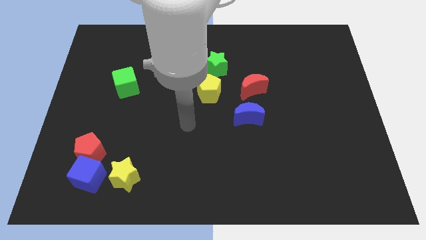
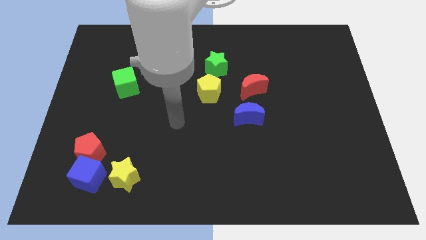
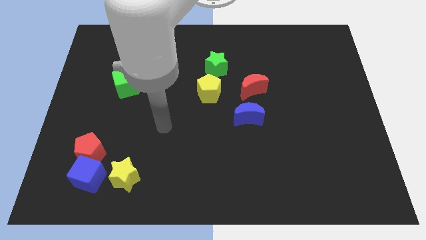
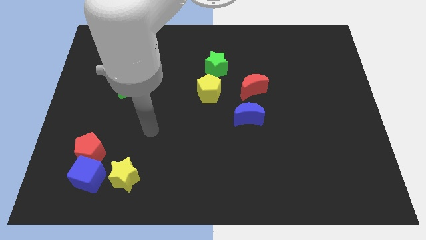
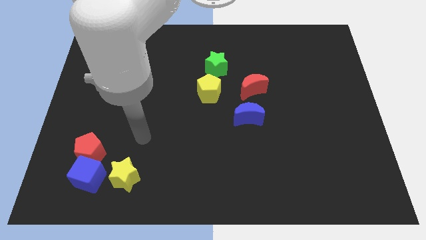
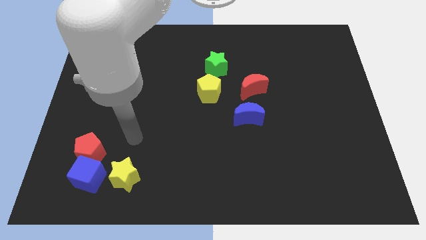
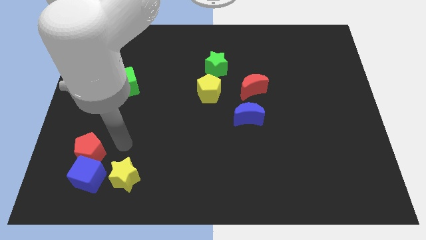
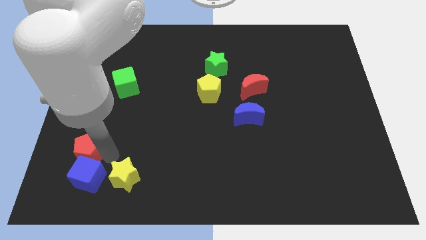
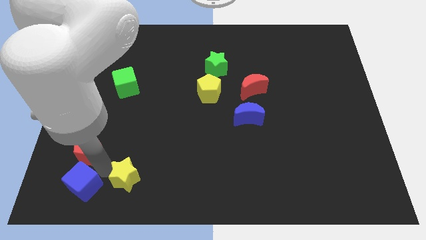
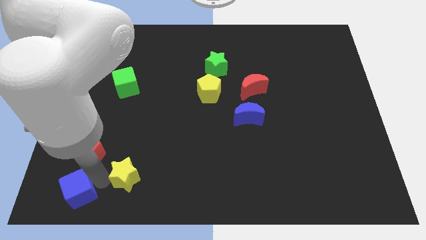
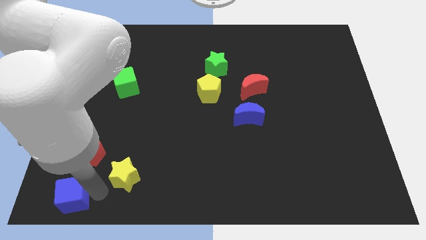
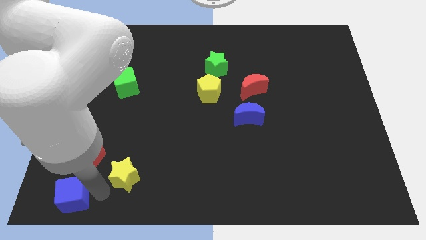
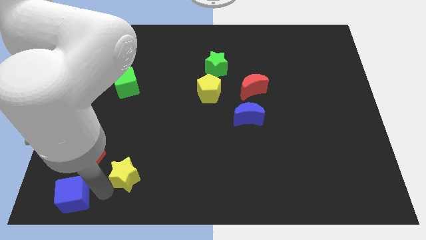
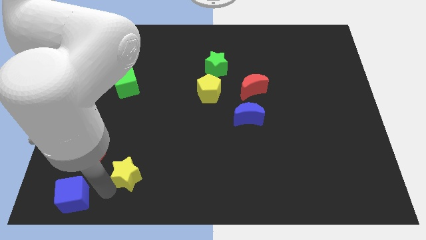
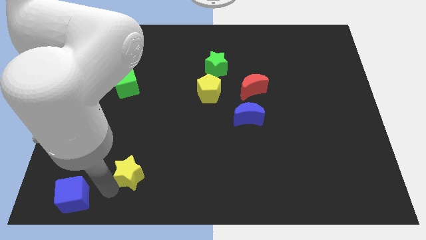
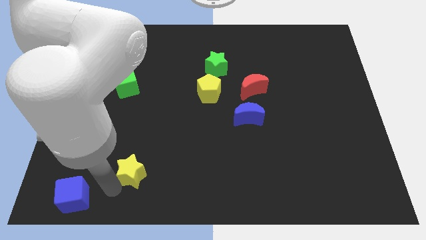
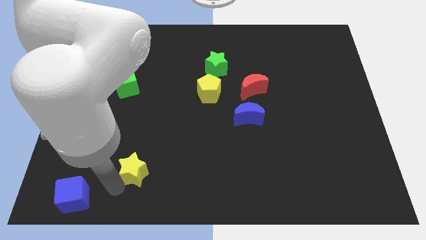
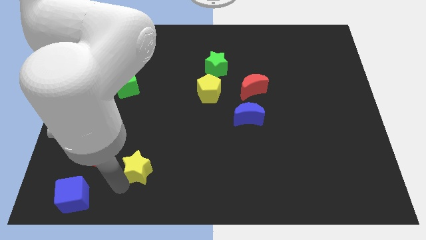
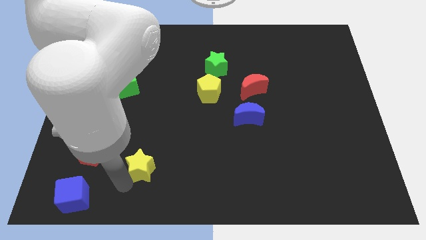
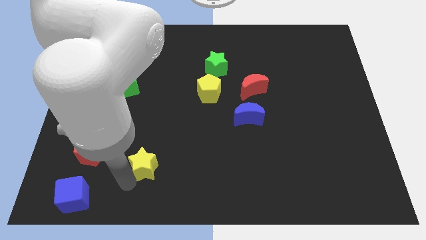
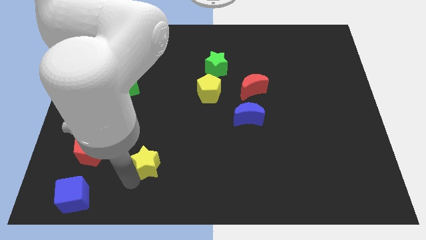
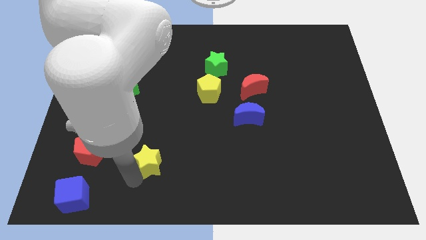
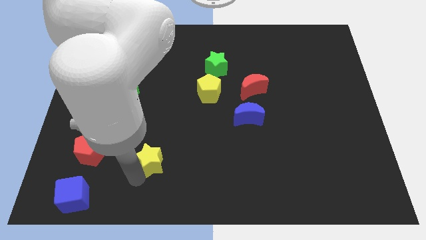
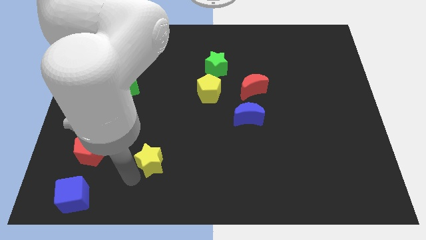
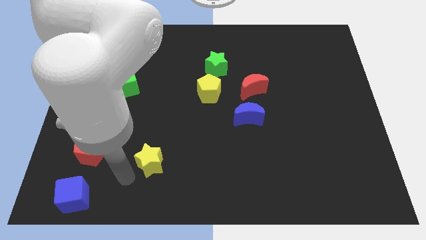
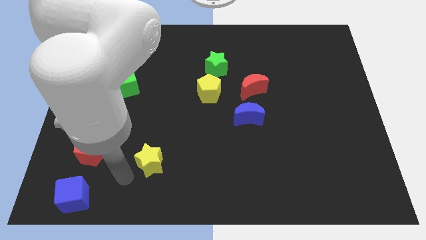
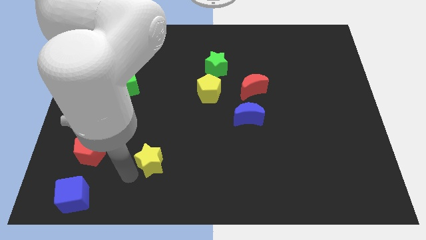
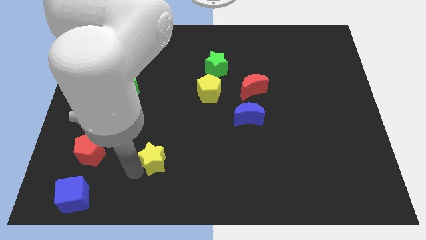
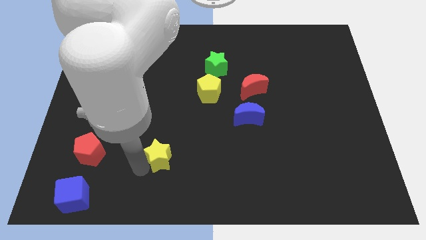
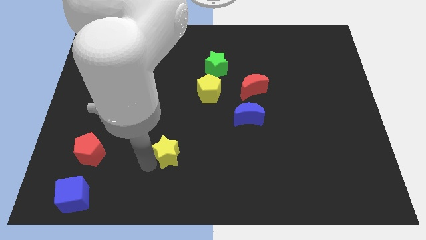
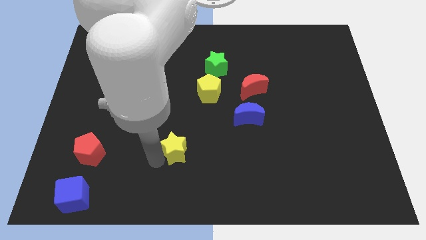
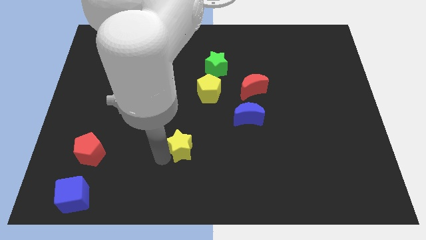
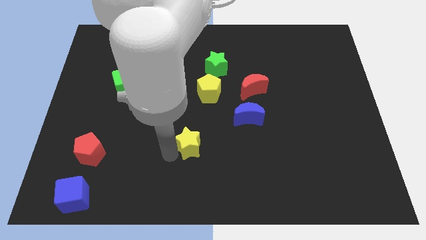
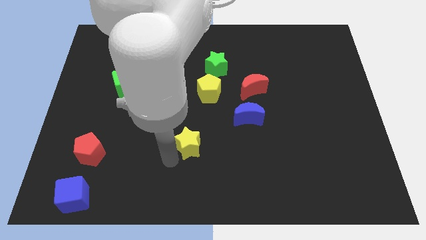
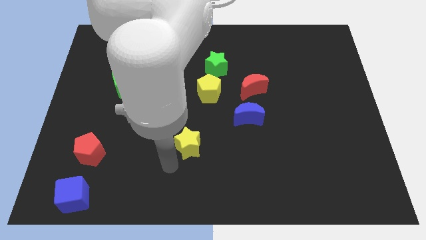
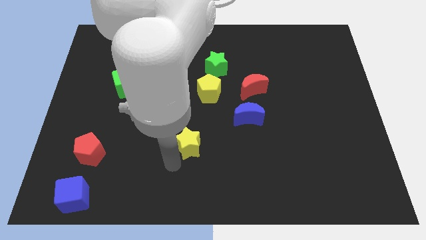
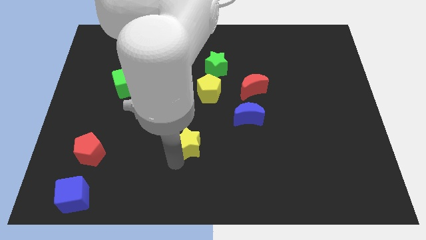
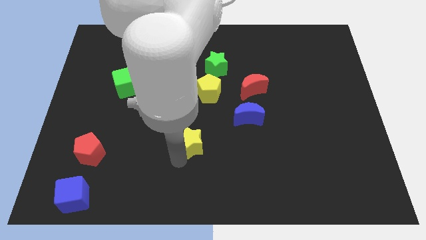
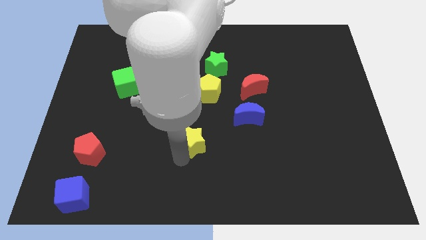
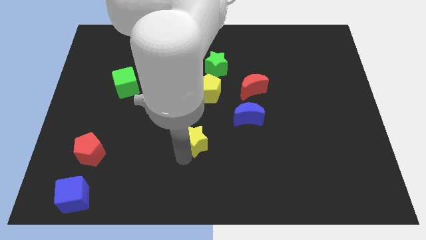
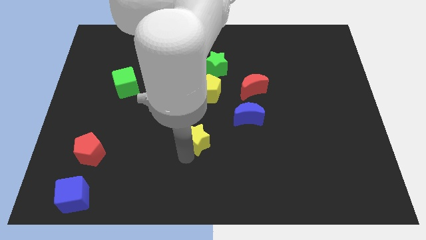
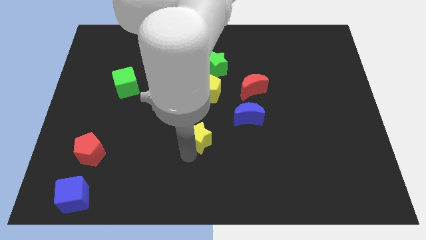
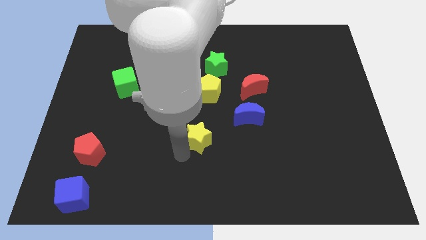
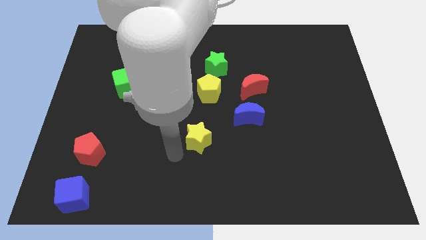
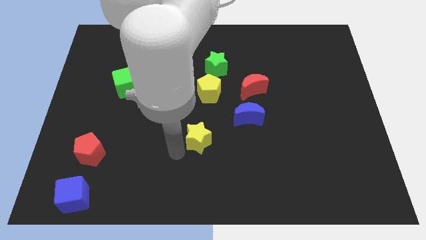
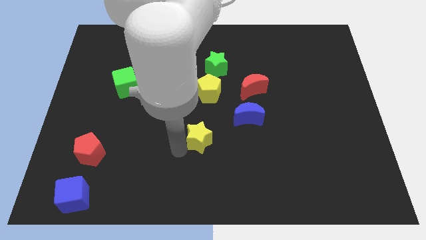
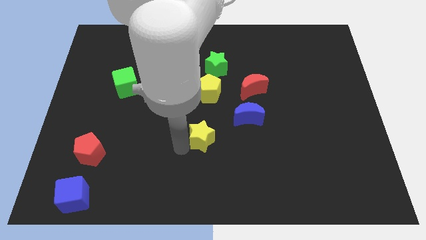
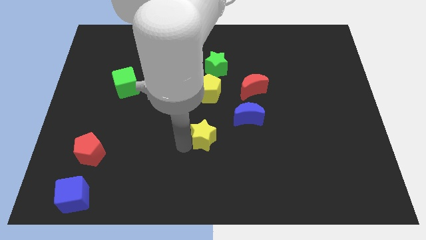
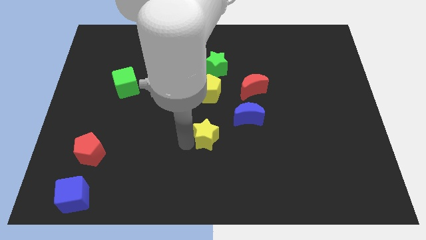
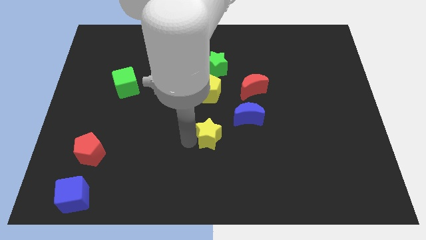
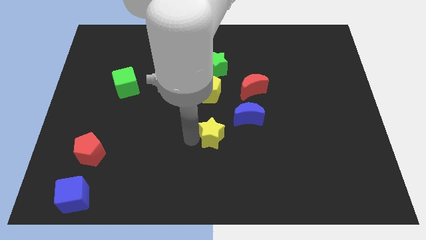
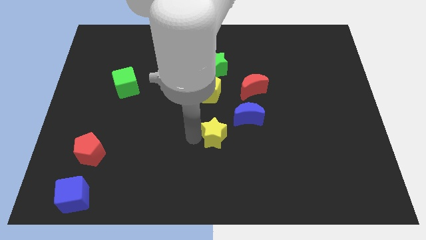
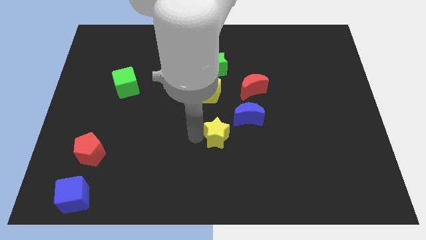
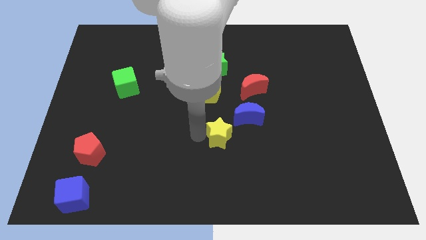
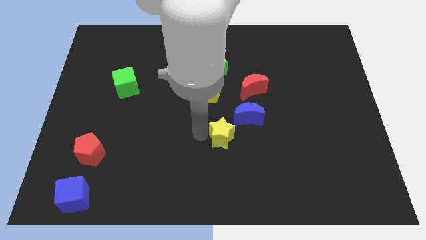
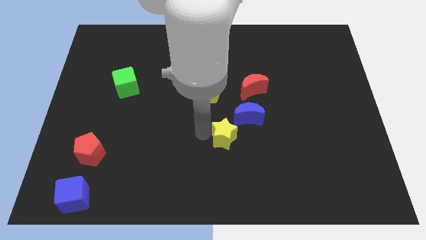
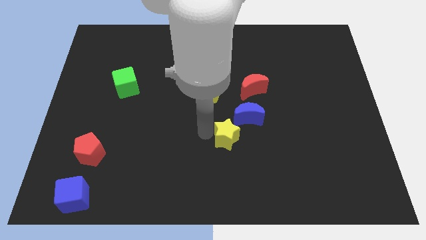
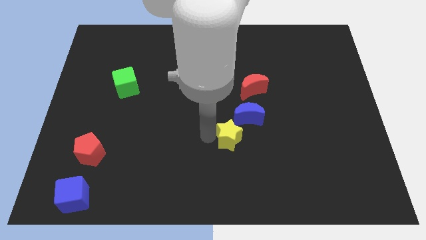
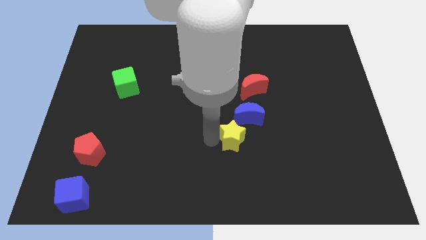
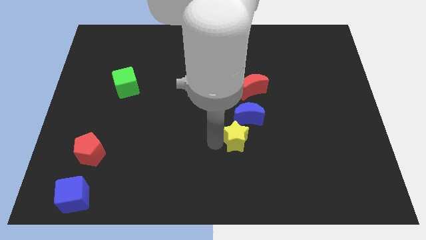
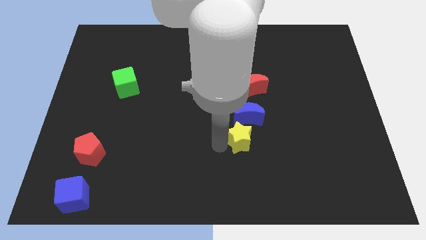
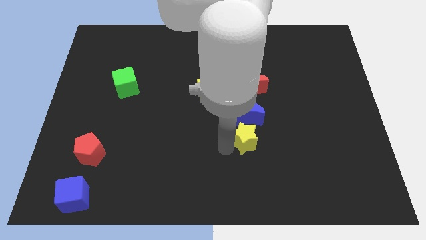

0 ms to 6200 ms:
move the yellow star close to the blue moon
